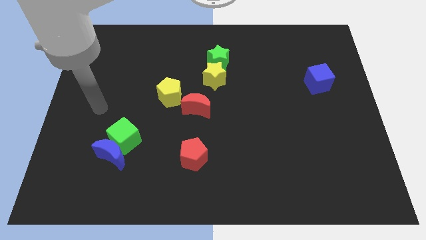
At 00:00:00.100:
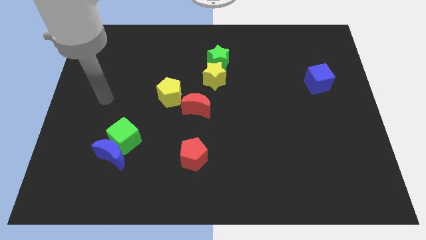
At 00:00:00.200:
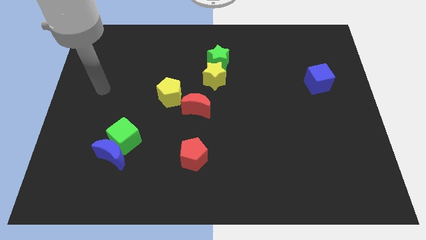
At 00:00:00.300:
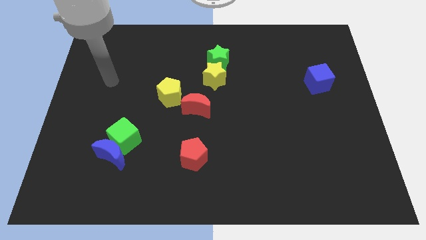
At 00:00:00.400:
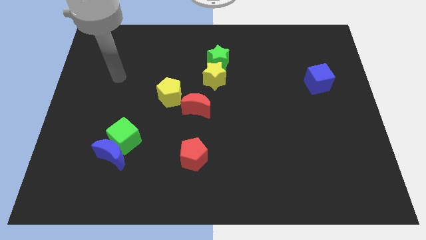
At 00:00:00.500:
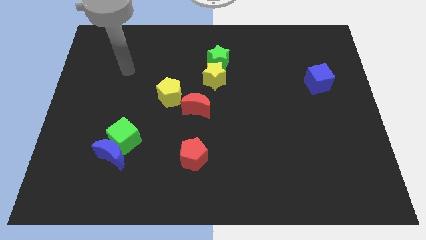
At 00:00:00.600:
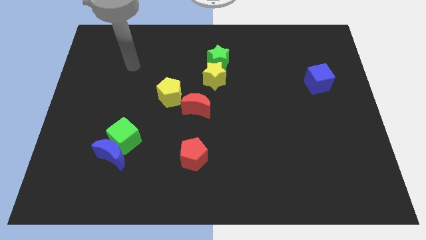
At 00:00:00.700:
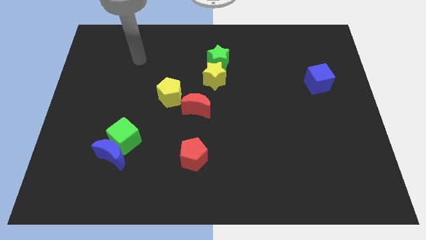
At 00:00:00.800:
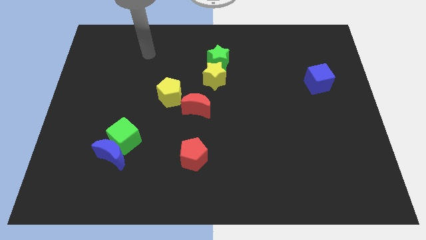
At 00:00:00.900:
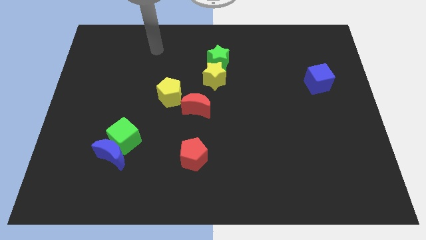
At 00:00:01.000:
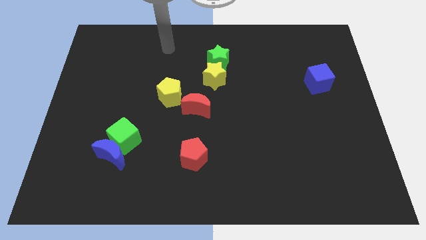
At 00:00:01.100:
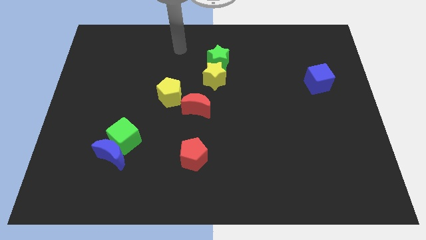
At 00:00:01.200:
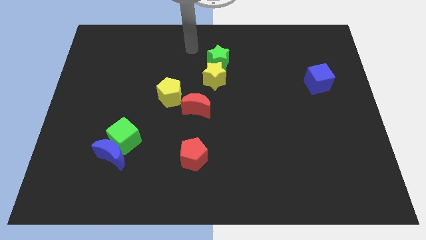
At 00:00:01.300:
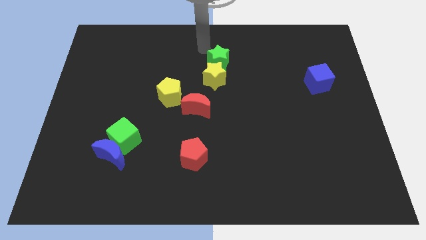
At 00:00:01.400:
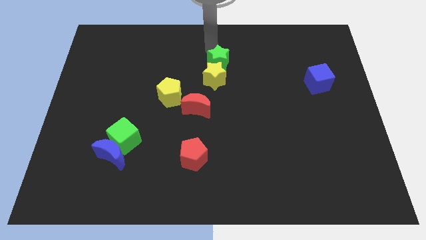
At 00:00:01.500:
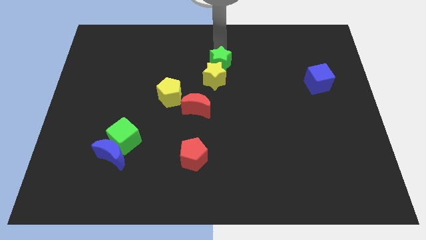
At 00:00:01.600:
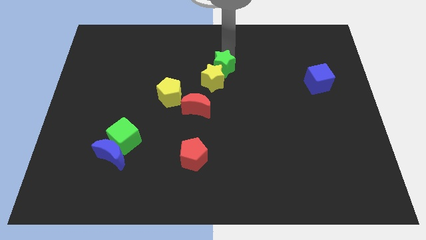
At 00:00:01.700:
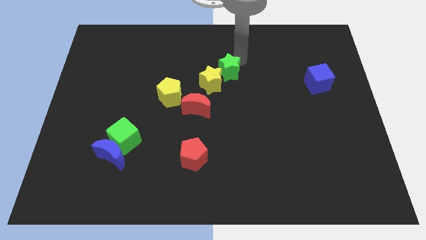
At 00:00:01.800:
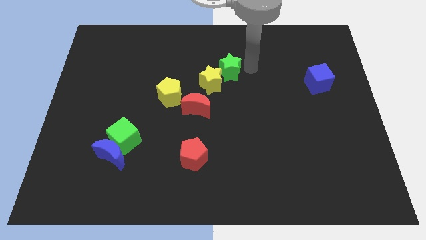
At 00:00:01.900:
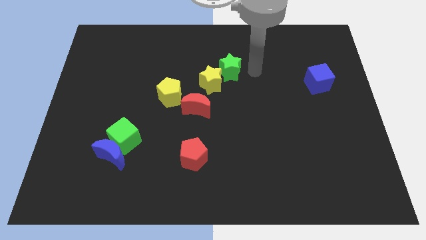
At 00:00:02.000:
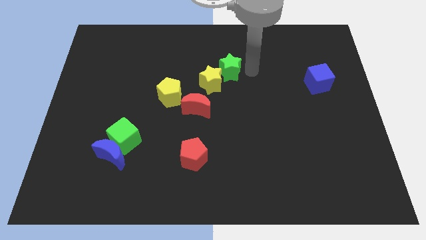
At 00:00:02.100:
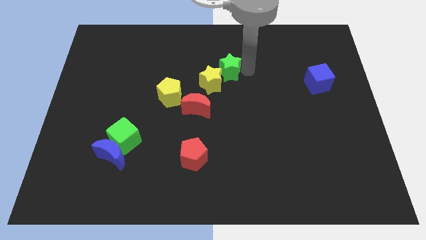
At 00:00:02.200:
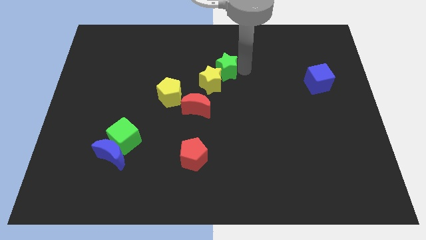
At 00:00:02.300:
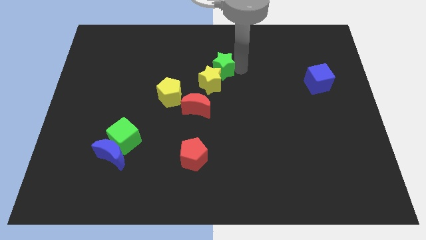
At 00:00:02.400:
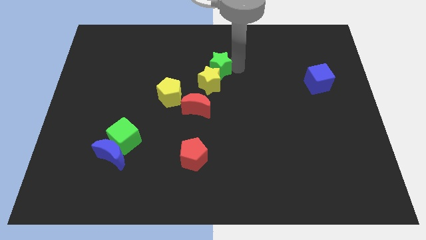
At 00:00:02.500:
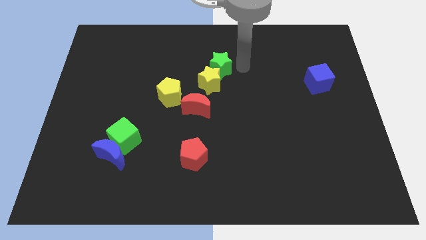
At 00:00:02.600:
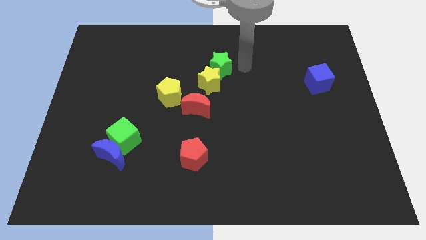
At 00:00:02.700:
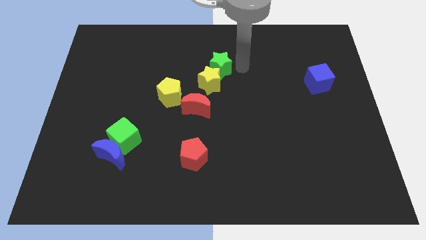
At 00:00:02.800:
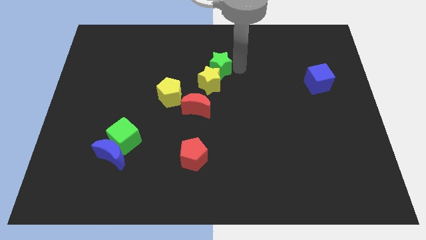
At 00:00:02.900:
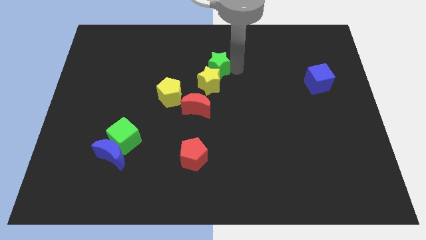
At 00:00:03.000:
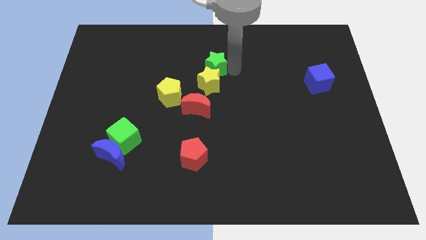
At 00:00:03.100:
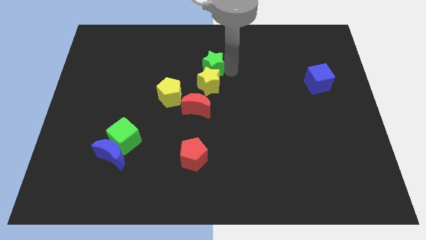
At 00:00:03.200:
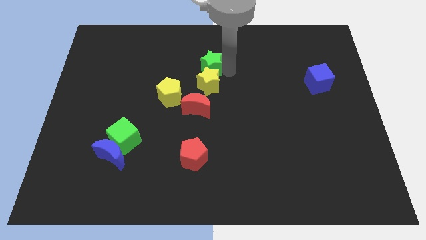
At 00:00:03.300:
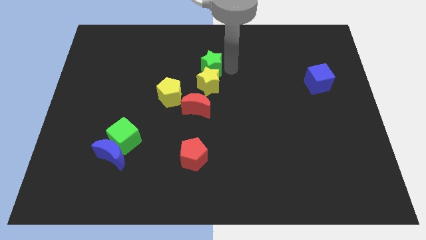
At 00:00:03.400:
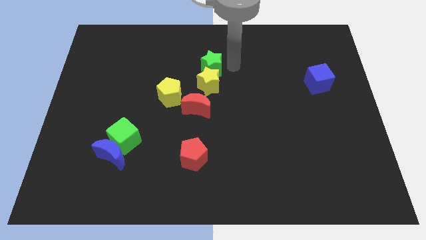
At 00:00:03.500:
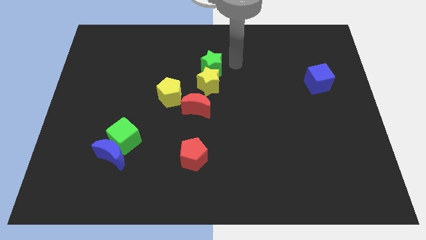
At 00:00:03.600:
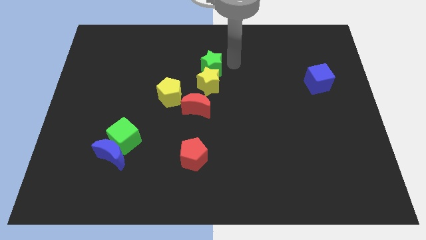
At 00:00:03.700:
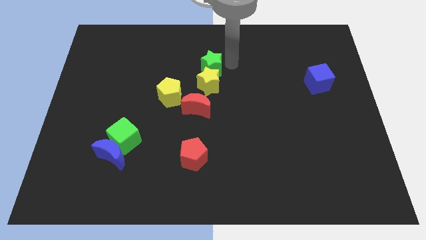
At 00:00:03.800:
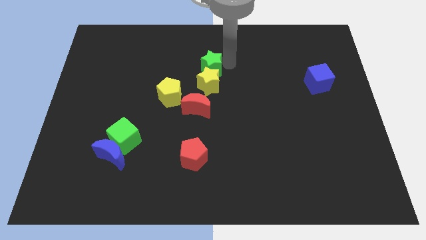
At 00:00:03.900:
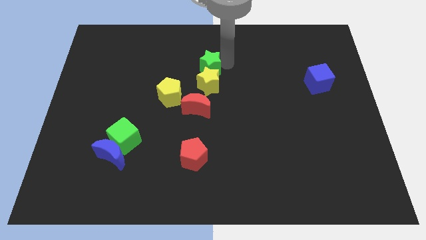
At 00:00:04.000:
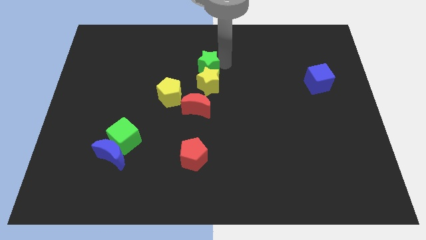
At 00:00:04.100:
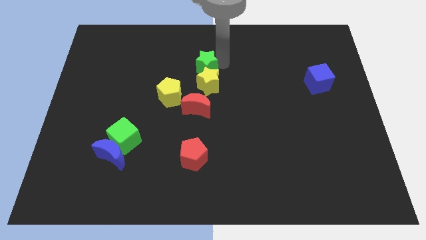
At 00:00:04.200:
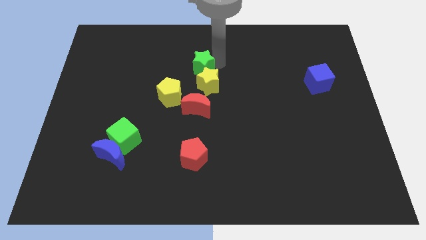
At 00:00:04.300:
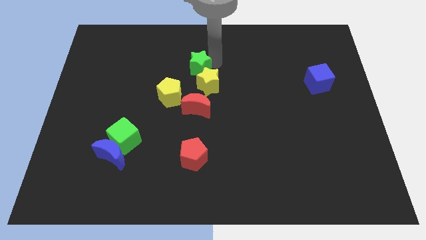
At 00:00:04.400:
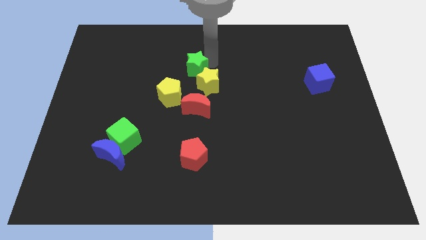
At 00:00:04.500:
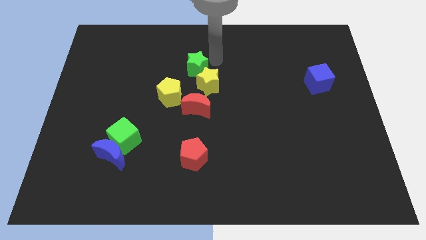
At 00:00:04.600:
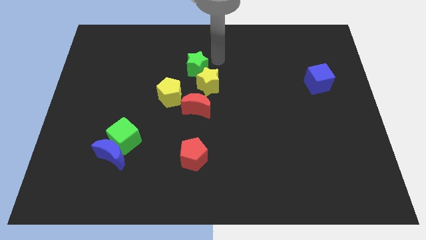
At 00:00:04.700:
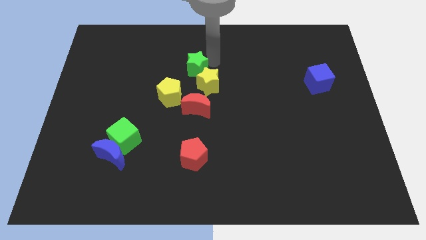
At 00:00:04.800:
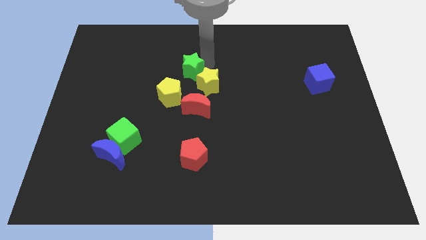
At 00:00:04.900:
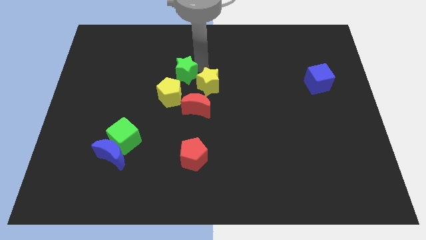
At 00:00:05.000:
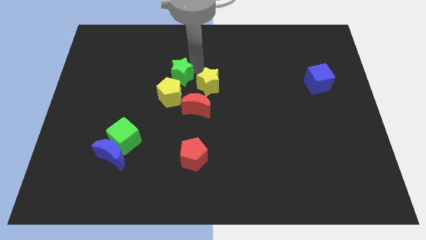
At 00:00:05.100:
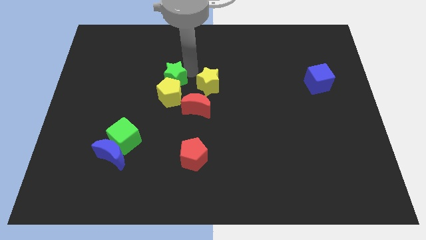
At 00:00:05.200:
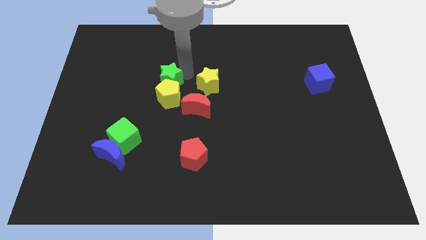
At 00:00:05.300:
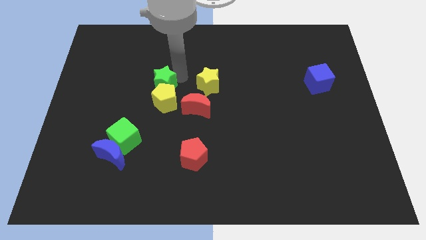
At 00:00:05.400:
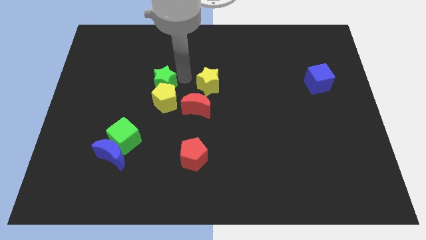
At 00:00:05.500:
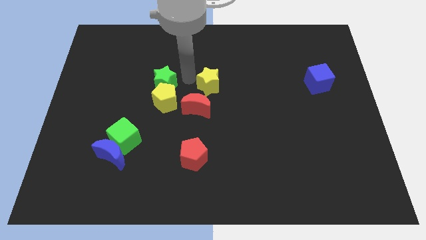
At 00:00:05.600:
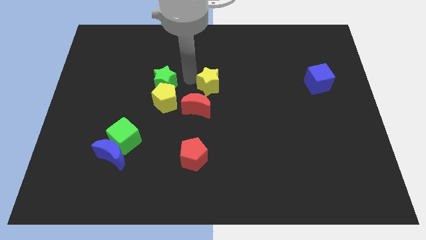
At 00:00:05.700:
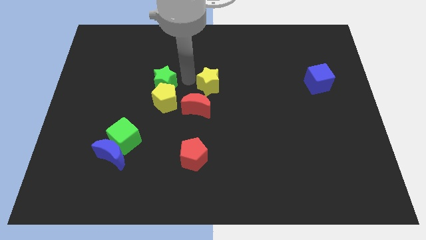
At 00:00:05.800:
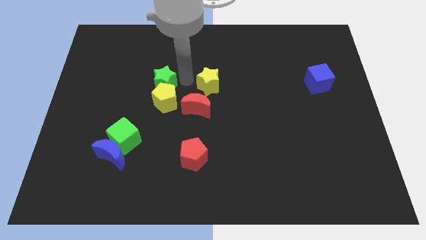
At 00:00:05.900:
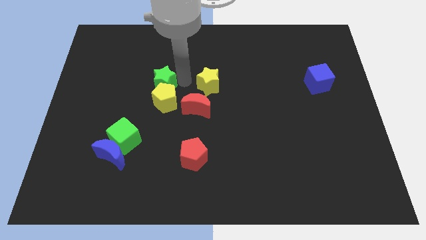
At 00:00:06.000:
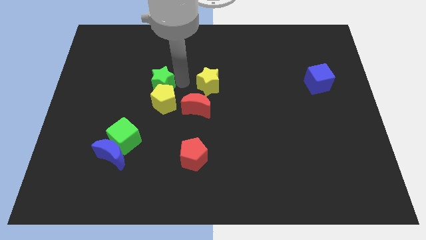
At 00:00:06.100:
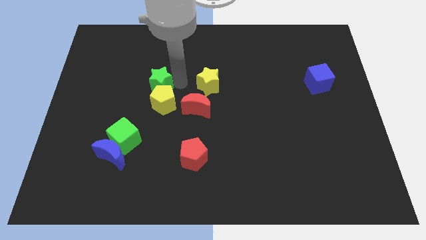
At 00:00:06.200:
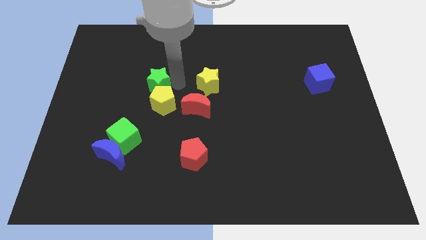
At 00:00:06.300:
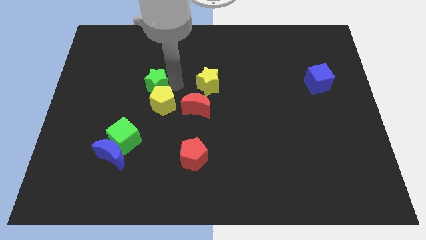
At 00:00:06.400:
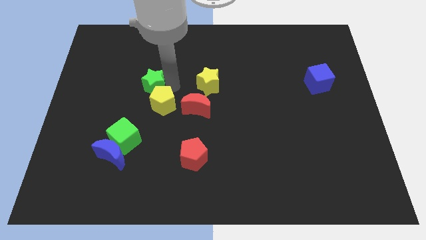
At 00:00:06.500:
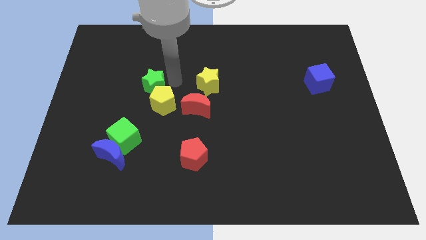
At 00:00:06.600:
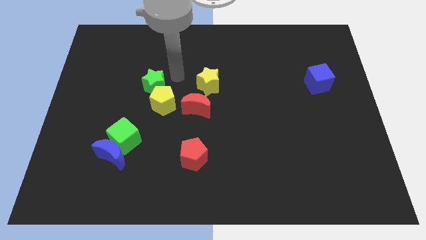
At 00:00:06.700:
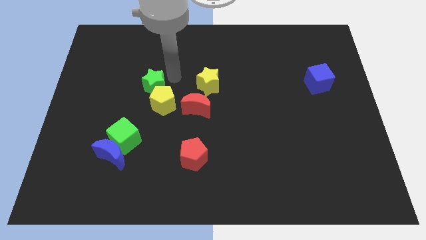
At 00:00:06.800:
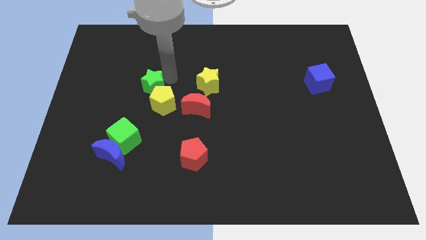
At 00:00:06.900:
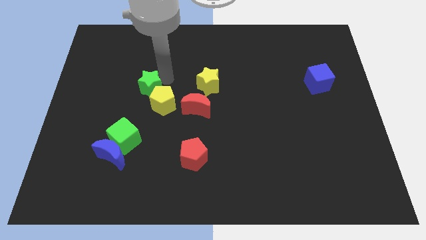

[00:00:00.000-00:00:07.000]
slide the green star left of the yellow pentagon
